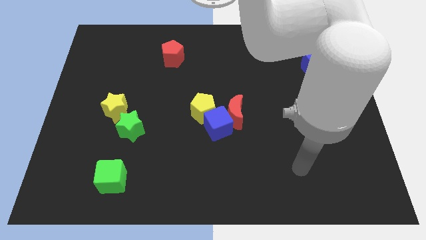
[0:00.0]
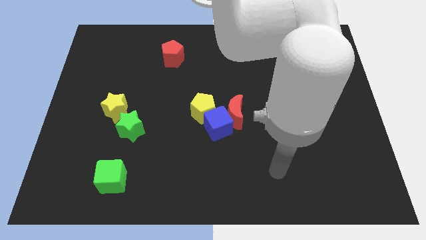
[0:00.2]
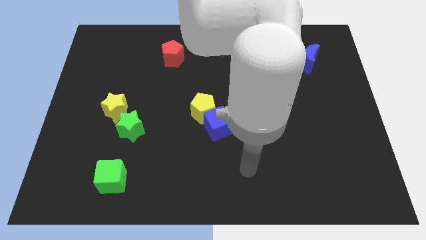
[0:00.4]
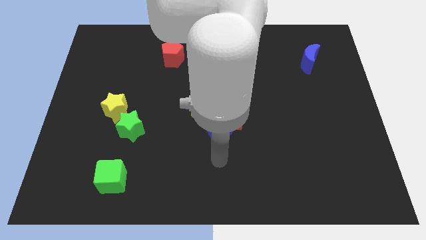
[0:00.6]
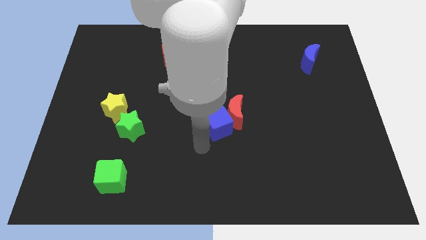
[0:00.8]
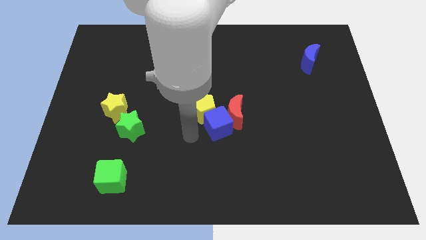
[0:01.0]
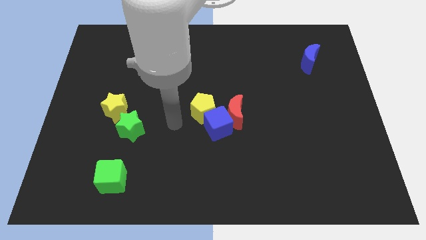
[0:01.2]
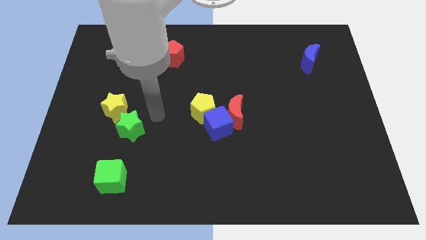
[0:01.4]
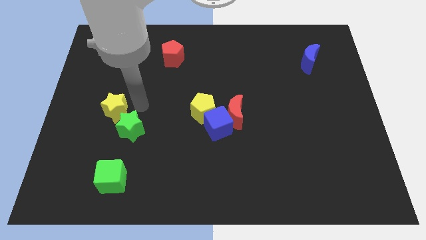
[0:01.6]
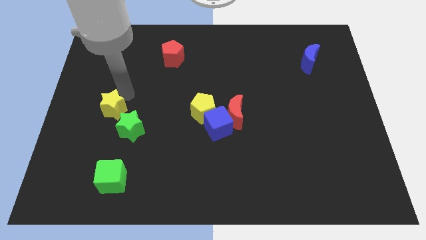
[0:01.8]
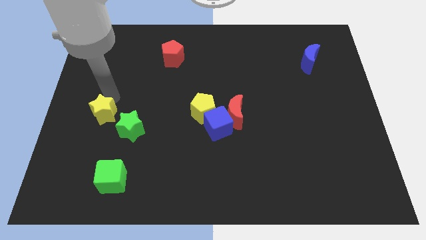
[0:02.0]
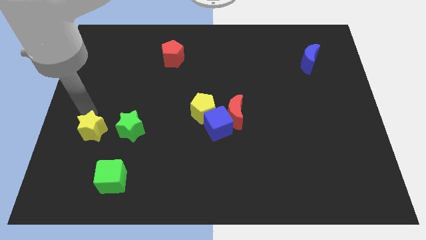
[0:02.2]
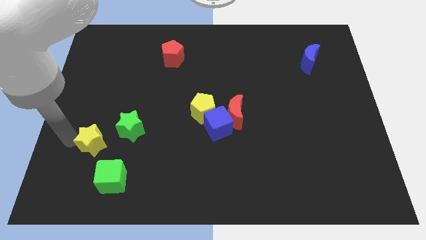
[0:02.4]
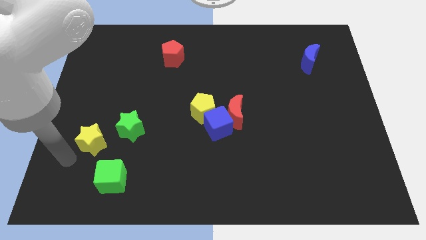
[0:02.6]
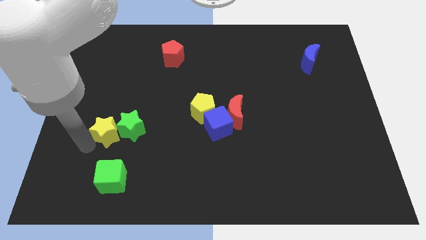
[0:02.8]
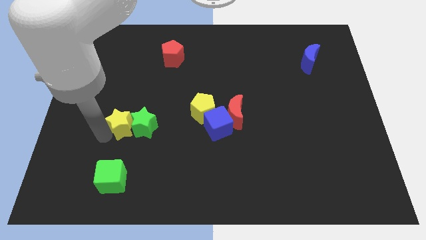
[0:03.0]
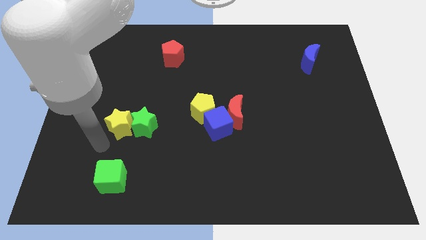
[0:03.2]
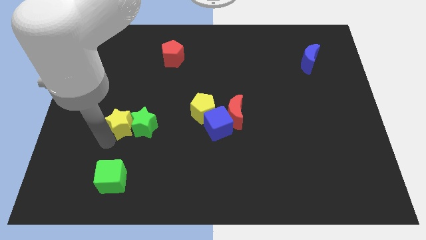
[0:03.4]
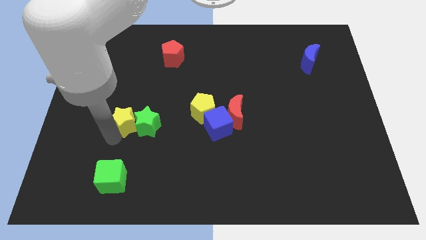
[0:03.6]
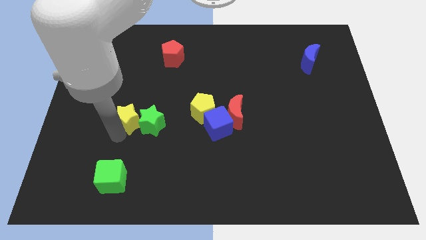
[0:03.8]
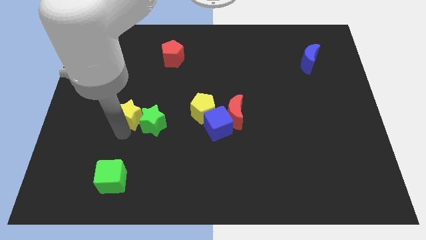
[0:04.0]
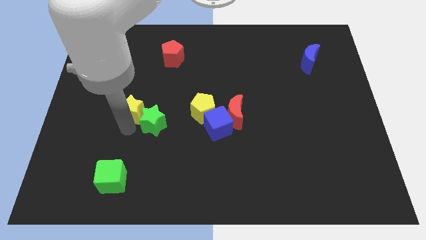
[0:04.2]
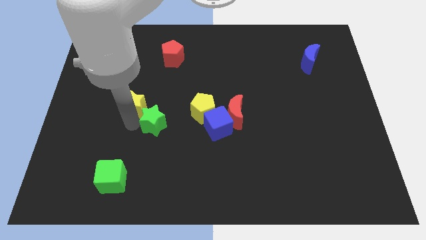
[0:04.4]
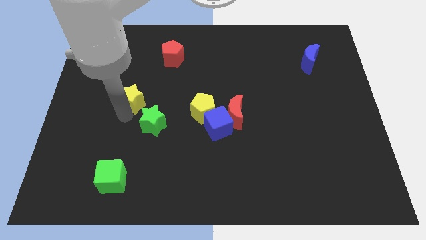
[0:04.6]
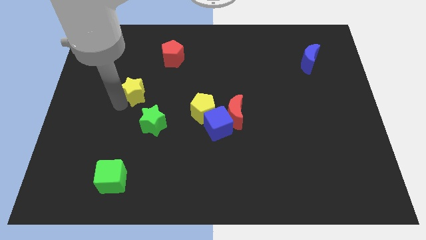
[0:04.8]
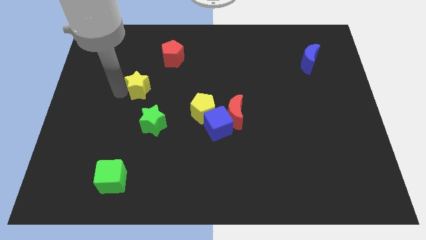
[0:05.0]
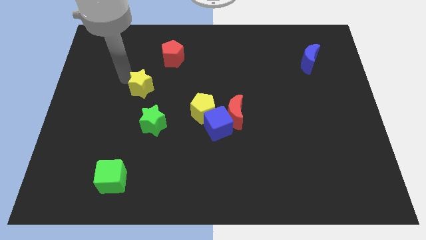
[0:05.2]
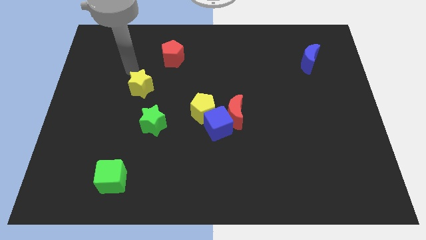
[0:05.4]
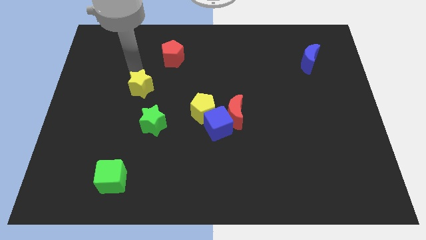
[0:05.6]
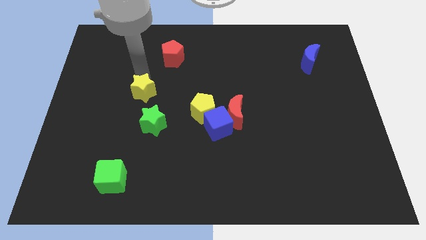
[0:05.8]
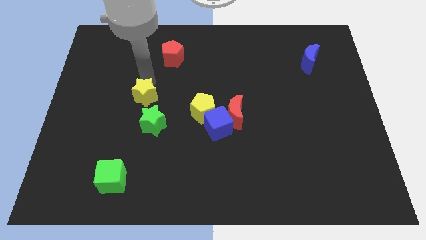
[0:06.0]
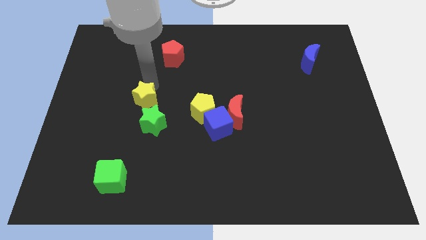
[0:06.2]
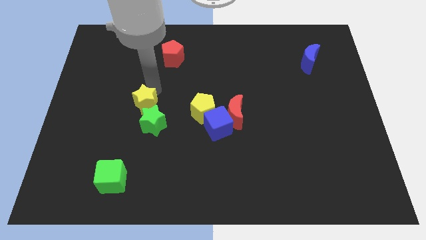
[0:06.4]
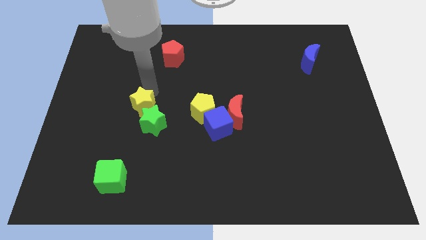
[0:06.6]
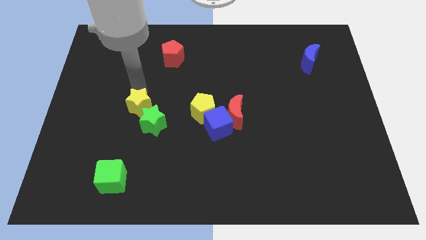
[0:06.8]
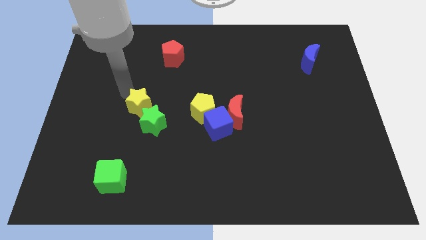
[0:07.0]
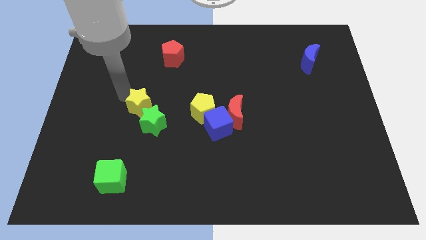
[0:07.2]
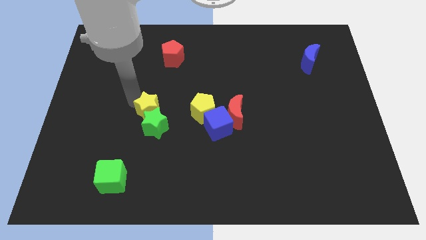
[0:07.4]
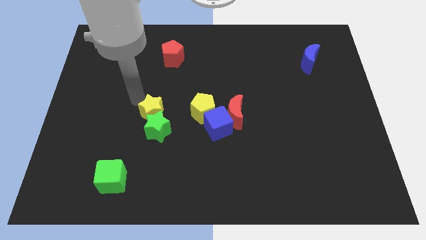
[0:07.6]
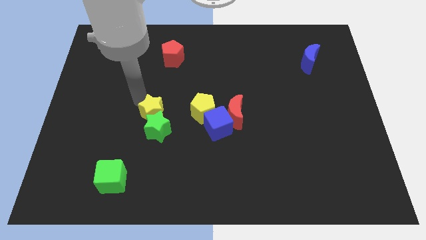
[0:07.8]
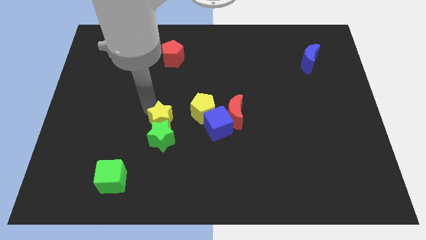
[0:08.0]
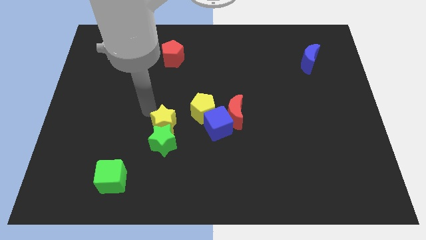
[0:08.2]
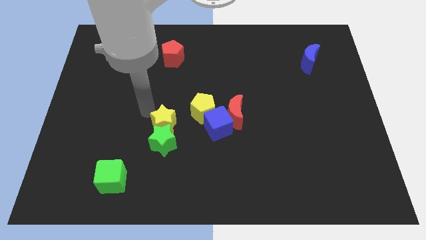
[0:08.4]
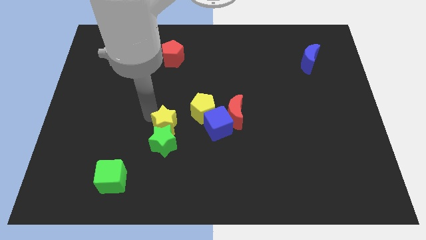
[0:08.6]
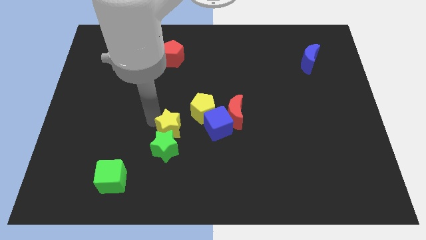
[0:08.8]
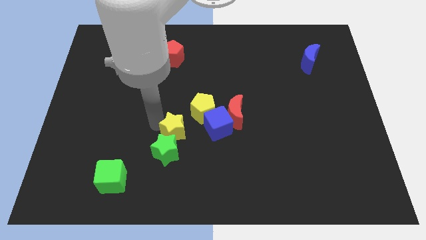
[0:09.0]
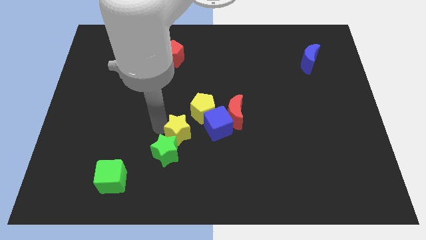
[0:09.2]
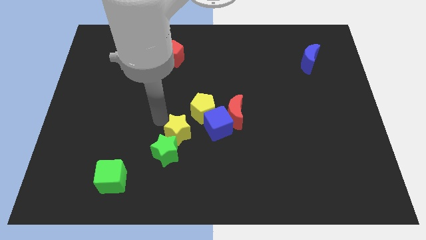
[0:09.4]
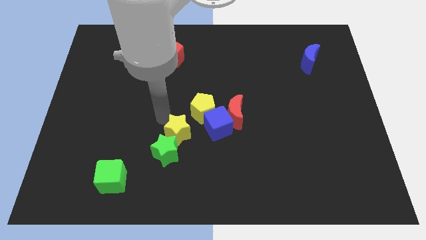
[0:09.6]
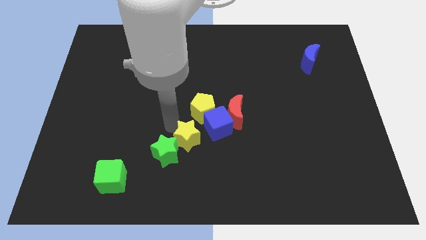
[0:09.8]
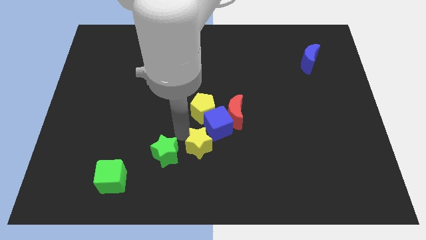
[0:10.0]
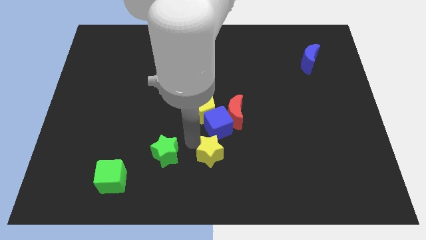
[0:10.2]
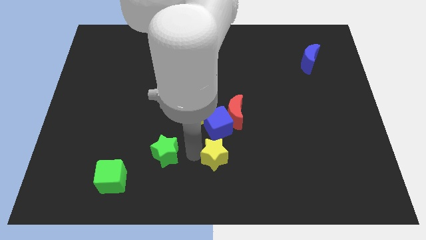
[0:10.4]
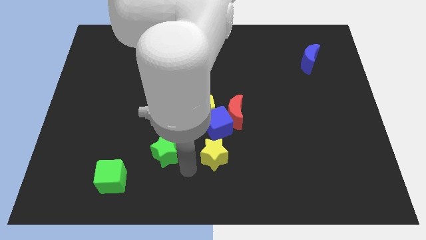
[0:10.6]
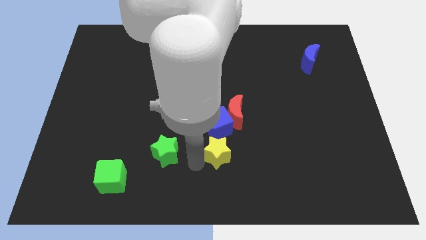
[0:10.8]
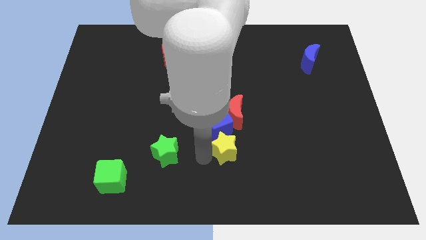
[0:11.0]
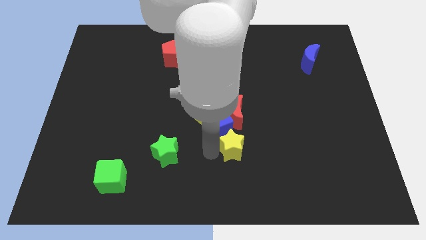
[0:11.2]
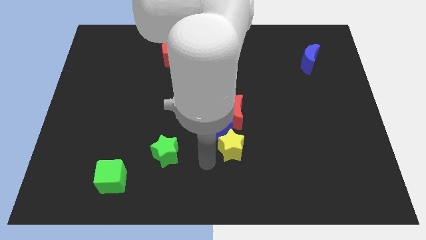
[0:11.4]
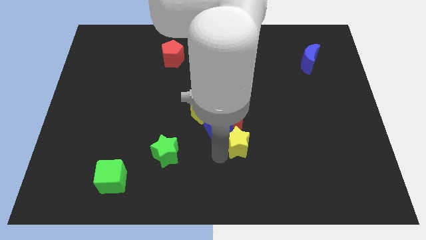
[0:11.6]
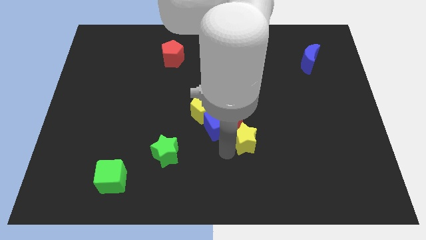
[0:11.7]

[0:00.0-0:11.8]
move the yellow star to the bottom right side of the red moon
